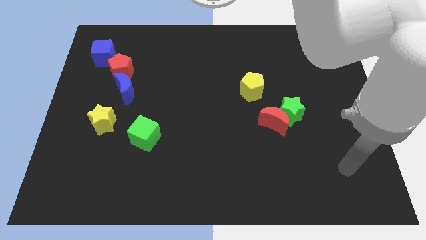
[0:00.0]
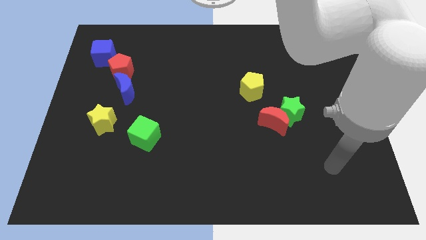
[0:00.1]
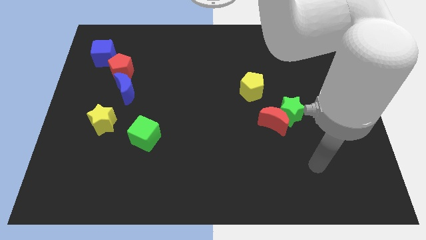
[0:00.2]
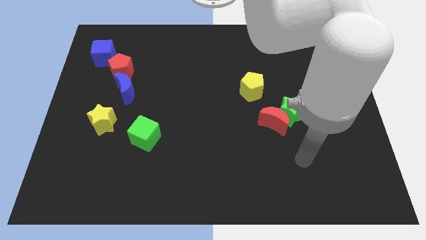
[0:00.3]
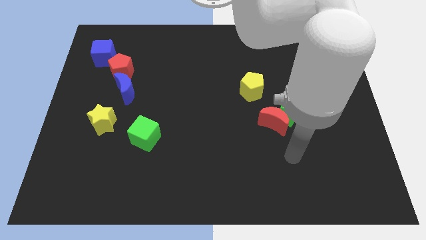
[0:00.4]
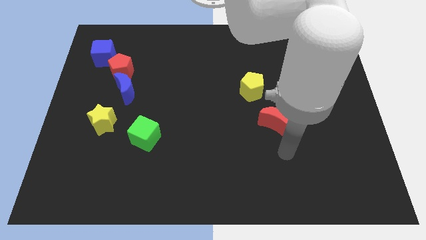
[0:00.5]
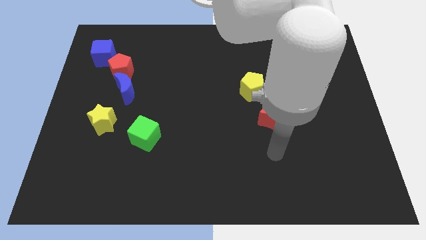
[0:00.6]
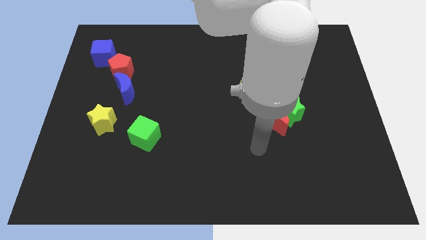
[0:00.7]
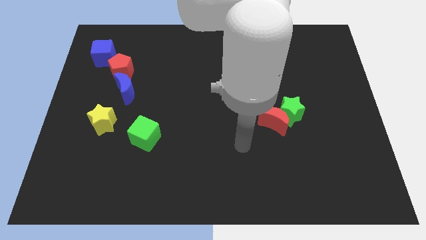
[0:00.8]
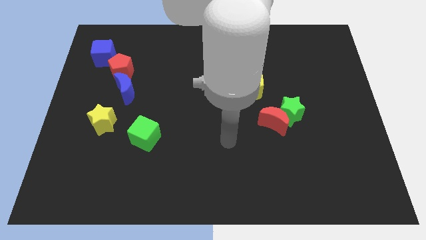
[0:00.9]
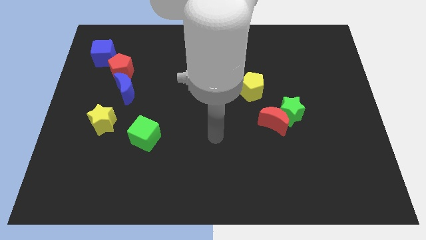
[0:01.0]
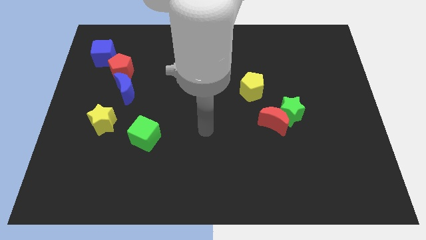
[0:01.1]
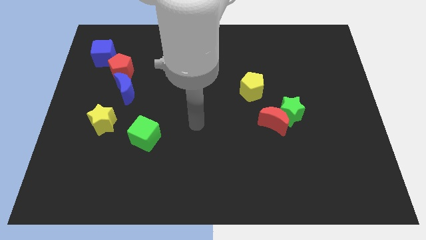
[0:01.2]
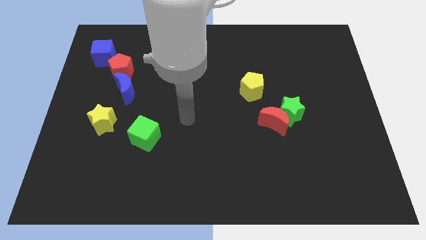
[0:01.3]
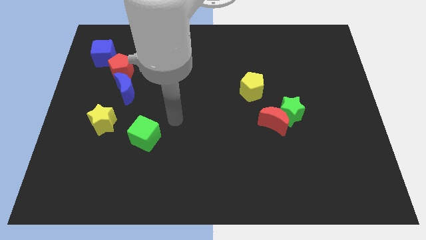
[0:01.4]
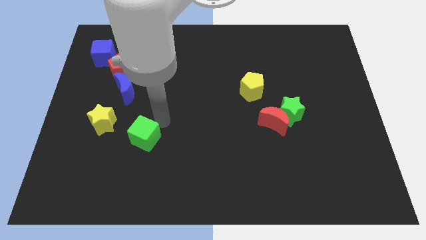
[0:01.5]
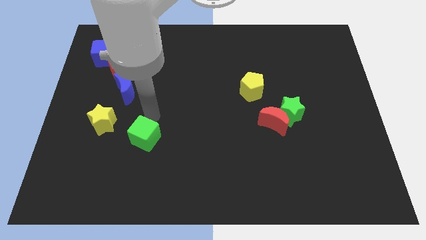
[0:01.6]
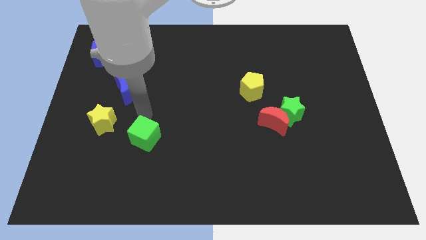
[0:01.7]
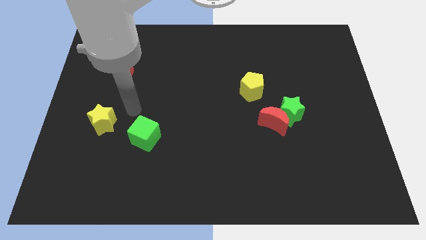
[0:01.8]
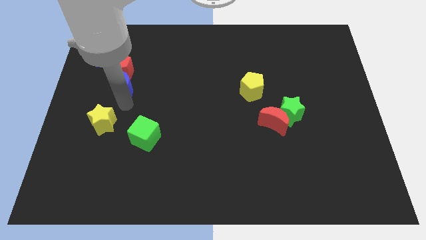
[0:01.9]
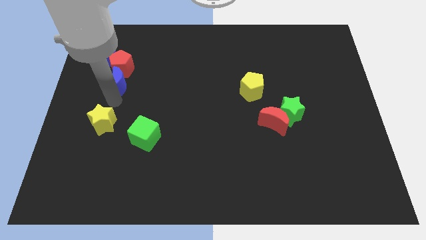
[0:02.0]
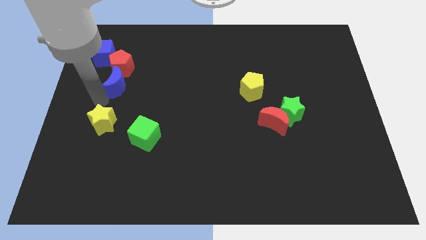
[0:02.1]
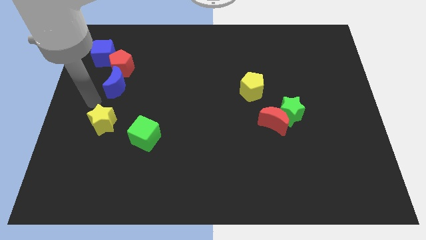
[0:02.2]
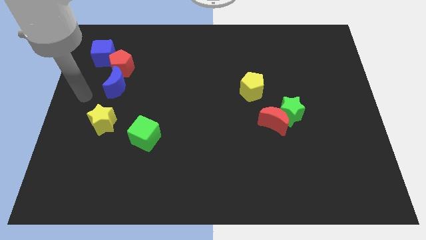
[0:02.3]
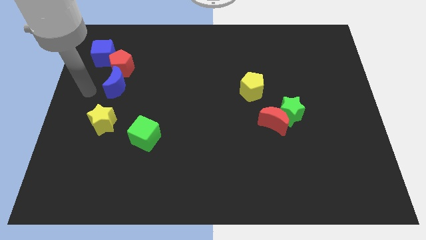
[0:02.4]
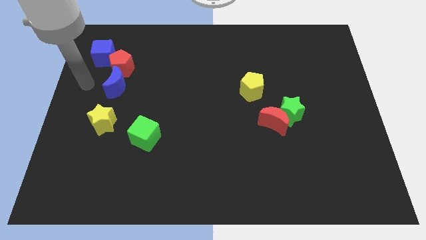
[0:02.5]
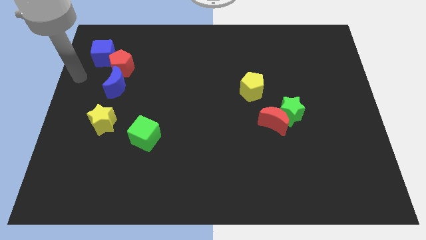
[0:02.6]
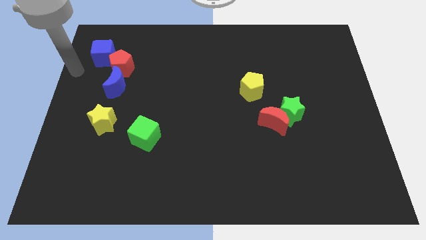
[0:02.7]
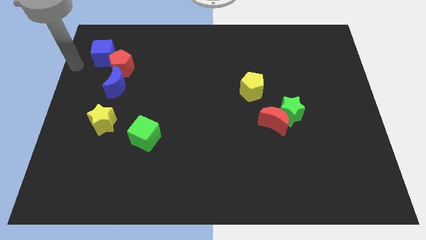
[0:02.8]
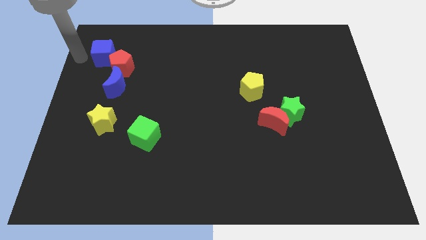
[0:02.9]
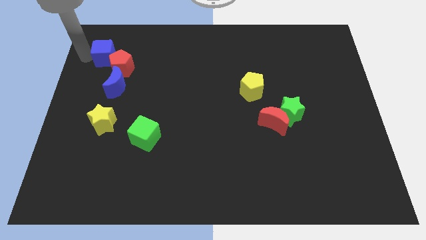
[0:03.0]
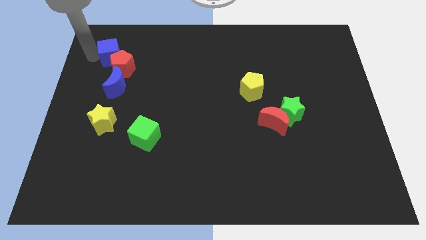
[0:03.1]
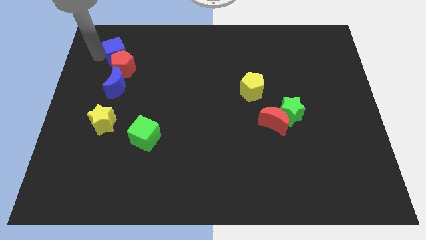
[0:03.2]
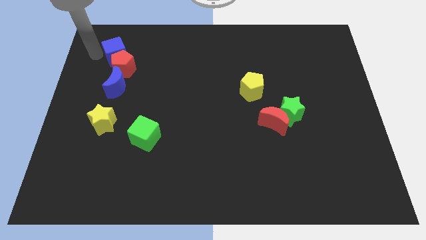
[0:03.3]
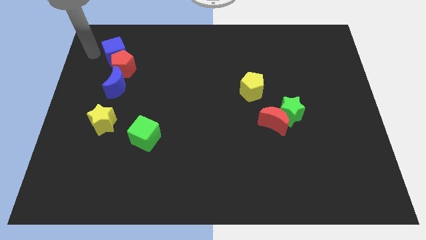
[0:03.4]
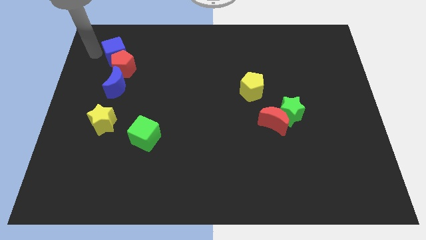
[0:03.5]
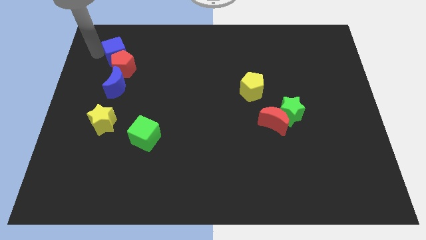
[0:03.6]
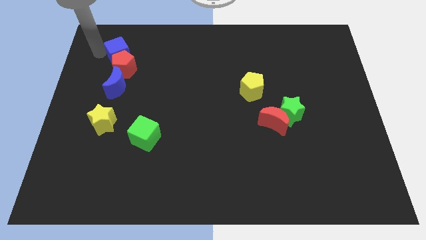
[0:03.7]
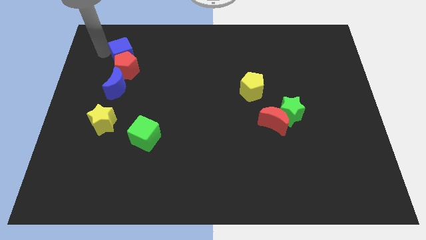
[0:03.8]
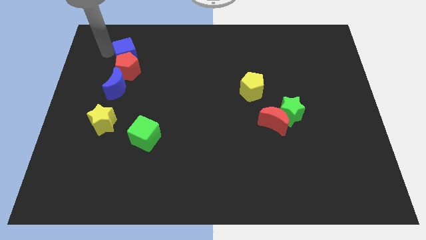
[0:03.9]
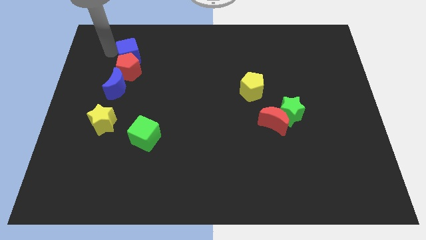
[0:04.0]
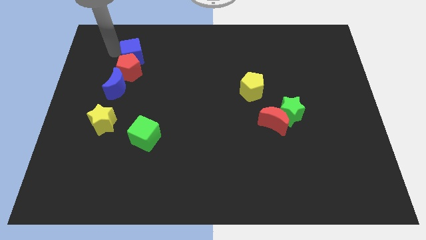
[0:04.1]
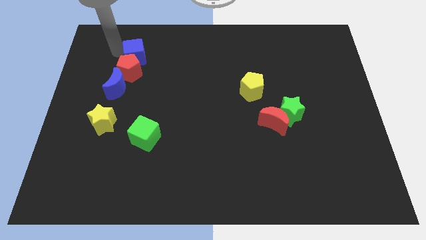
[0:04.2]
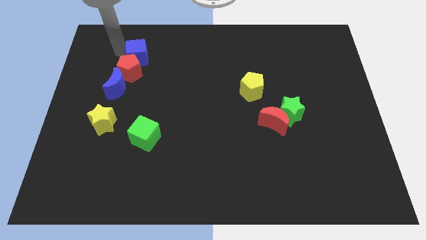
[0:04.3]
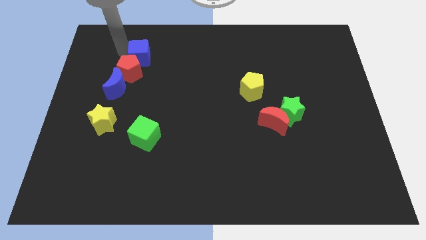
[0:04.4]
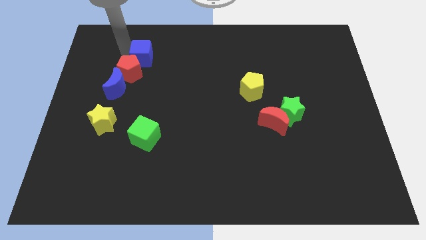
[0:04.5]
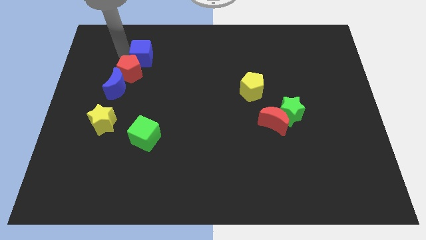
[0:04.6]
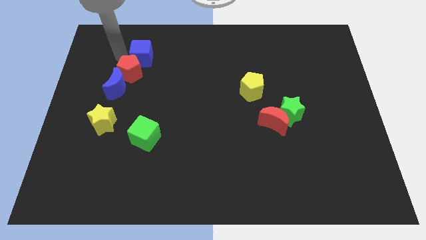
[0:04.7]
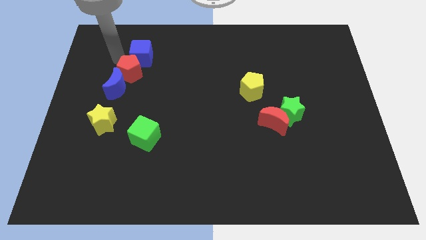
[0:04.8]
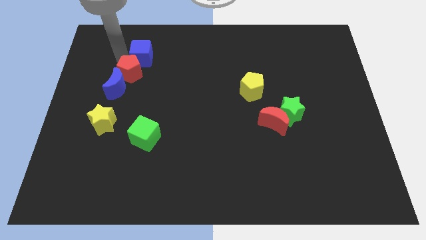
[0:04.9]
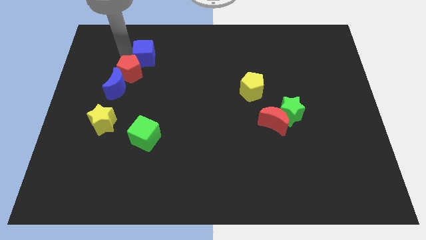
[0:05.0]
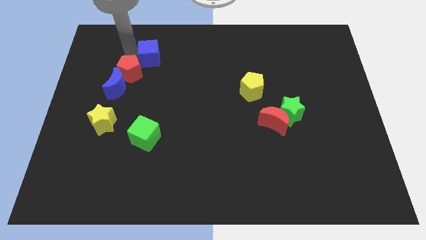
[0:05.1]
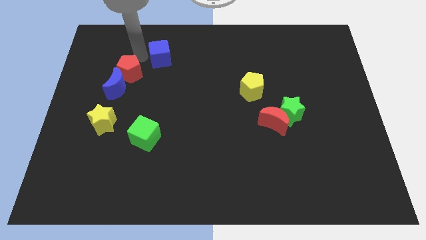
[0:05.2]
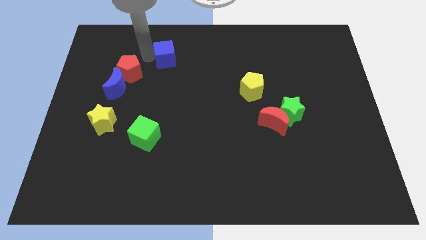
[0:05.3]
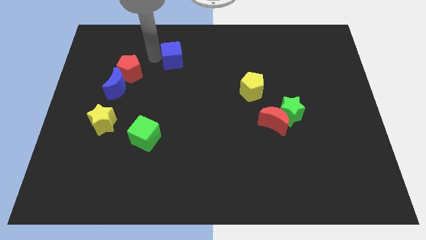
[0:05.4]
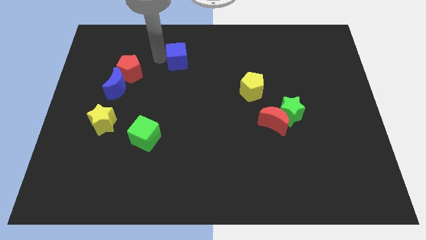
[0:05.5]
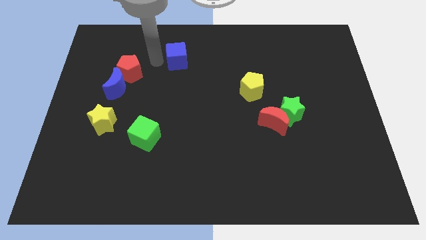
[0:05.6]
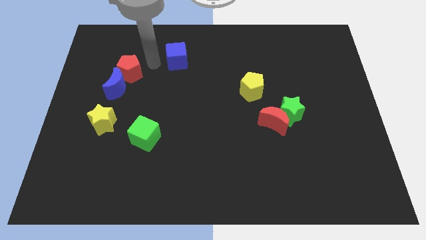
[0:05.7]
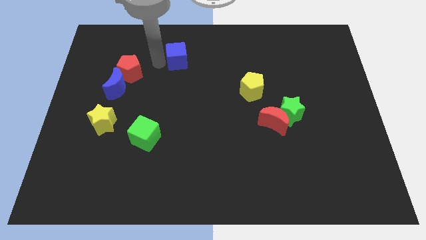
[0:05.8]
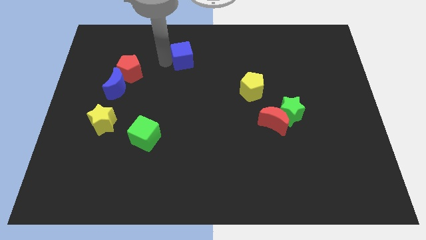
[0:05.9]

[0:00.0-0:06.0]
move the blue cube right

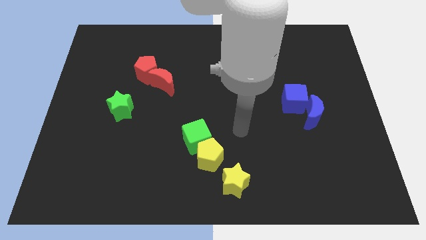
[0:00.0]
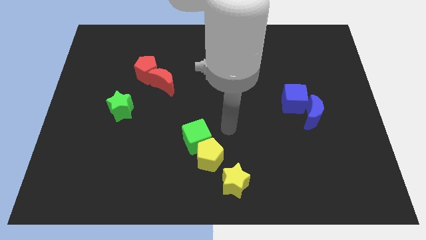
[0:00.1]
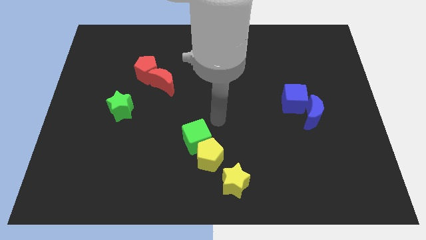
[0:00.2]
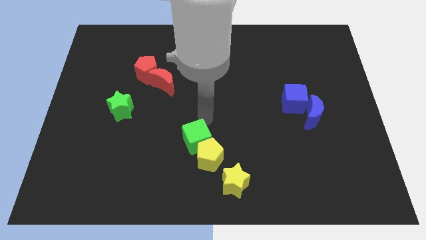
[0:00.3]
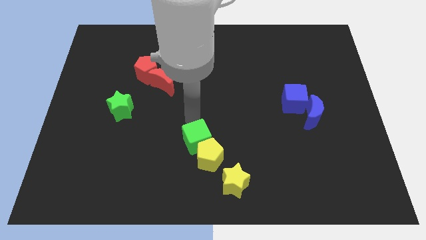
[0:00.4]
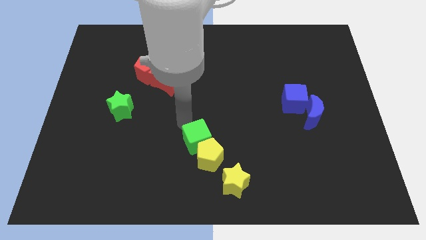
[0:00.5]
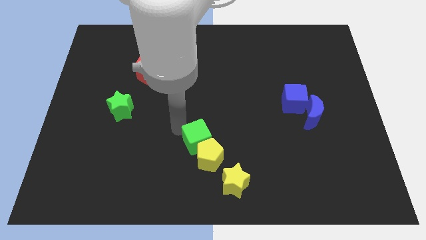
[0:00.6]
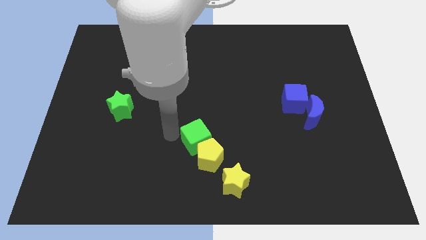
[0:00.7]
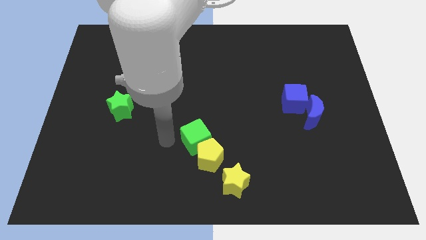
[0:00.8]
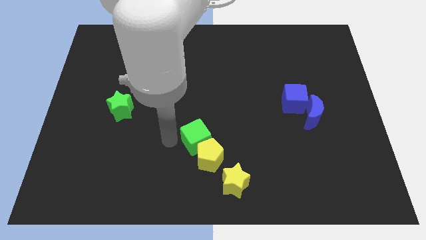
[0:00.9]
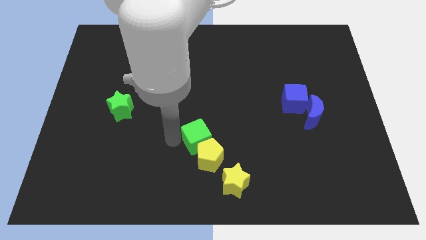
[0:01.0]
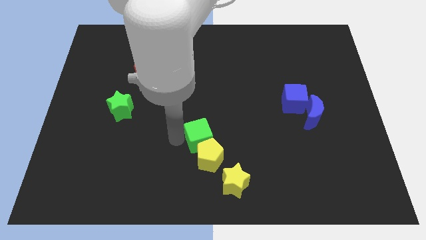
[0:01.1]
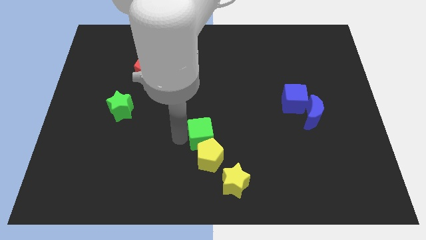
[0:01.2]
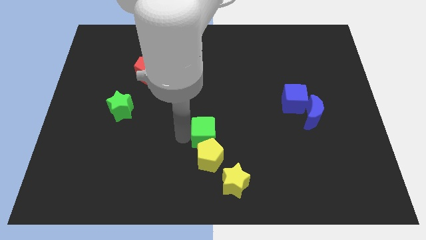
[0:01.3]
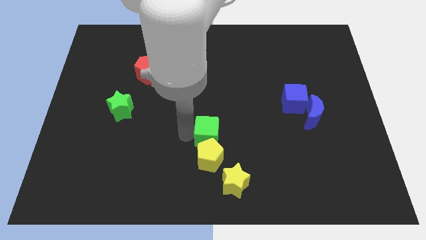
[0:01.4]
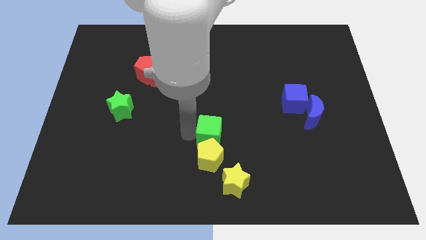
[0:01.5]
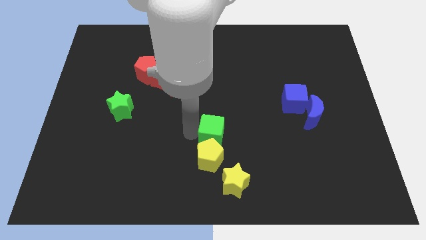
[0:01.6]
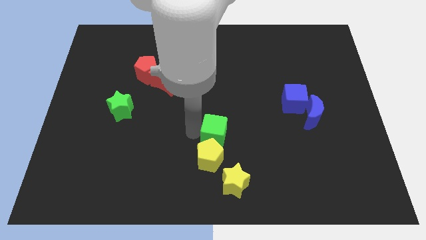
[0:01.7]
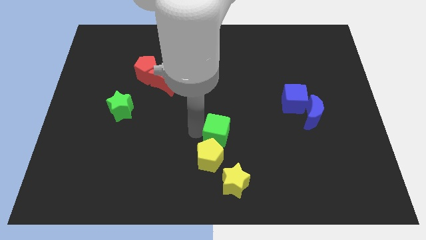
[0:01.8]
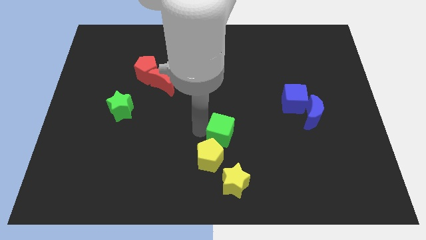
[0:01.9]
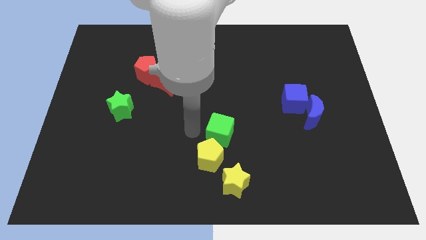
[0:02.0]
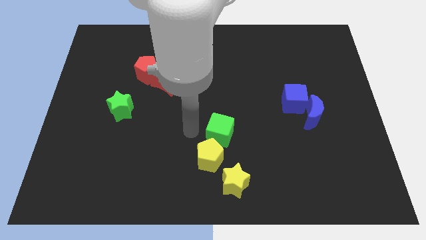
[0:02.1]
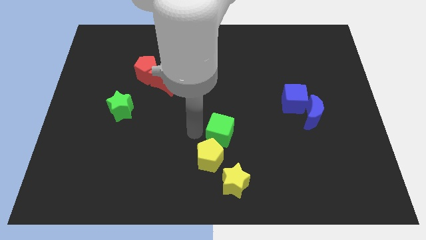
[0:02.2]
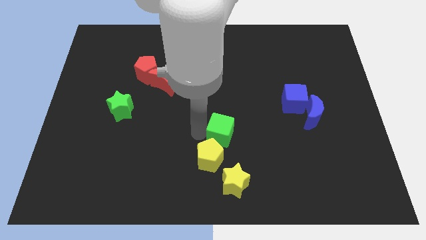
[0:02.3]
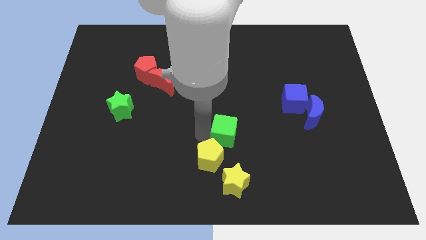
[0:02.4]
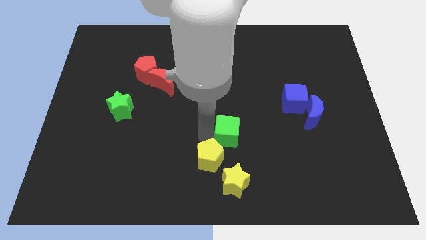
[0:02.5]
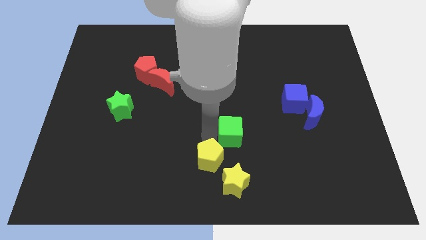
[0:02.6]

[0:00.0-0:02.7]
slightly slide the green cube to the right
